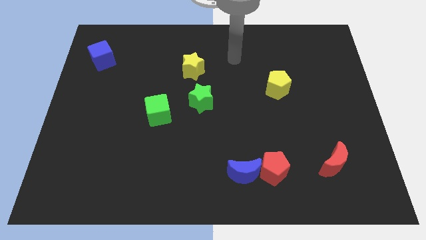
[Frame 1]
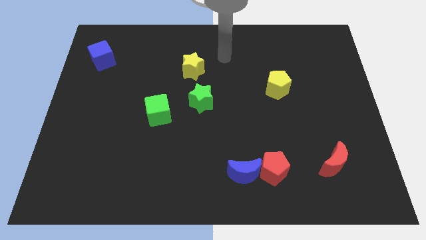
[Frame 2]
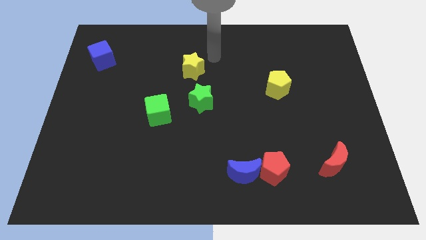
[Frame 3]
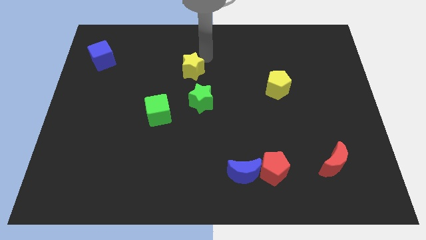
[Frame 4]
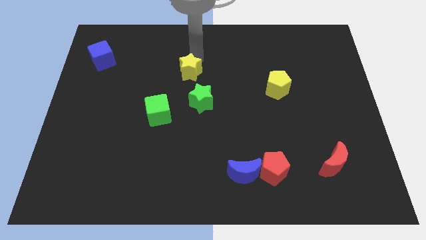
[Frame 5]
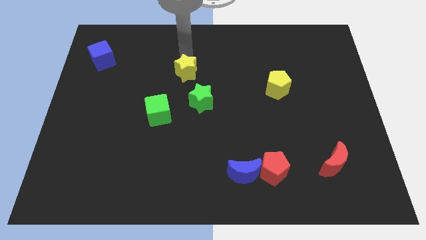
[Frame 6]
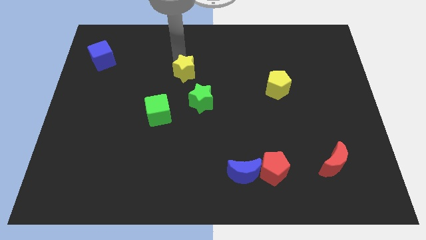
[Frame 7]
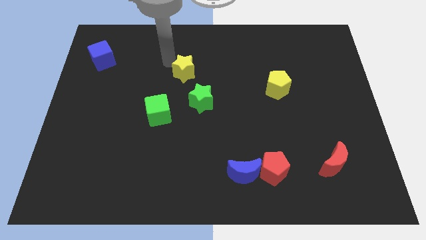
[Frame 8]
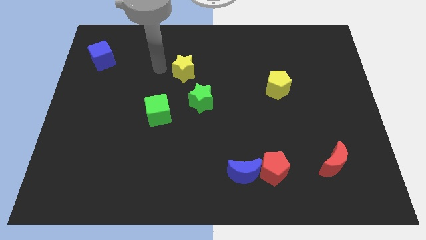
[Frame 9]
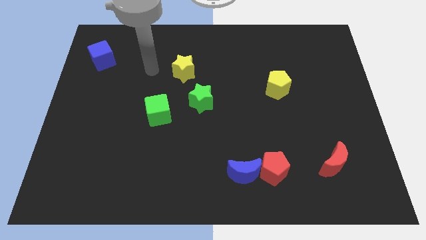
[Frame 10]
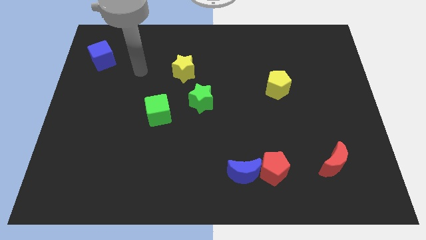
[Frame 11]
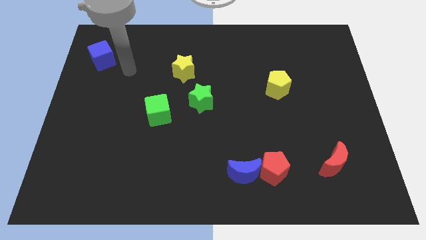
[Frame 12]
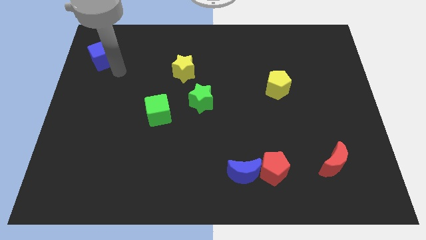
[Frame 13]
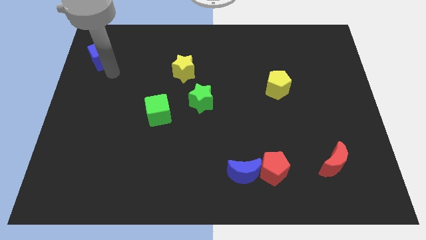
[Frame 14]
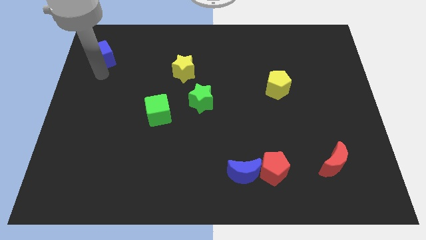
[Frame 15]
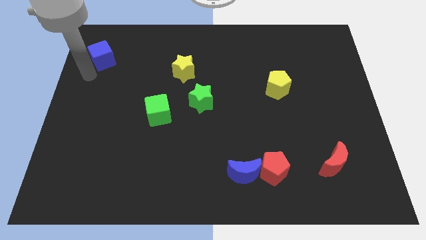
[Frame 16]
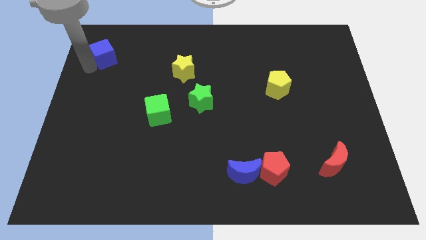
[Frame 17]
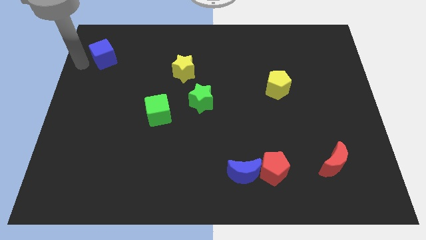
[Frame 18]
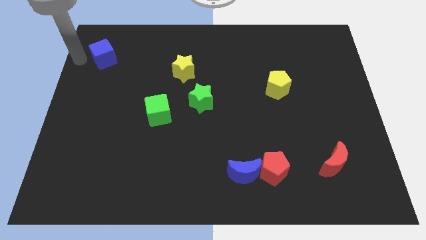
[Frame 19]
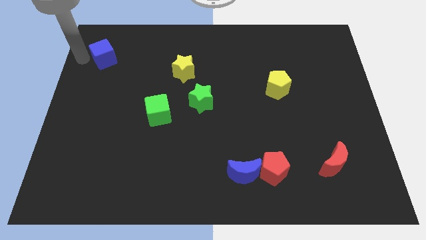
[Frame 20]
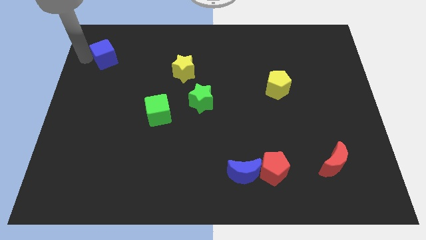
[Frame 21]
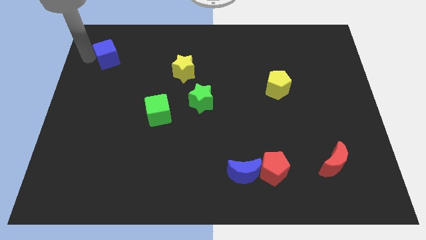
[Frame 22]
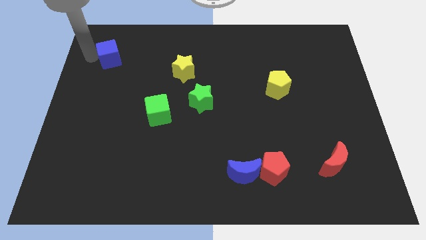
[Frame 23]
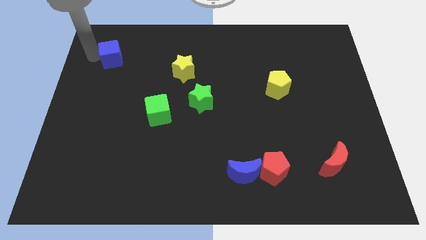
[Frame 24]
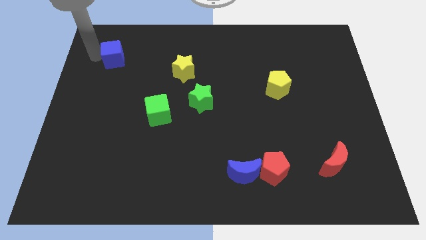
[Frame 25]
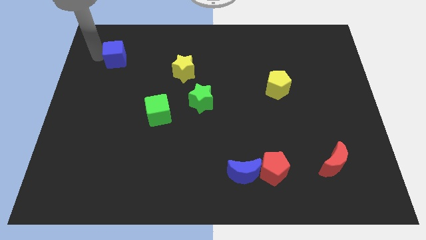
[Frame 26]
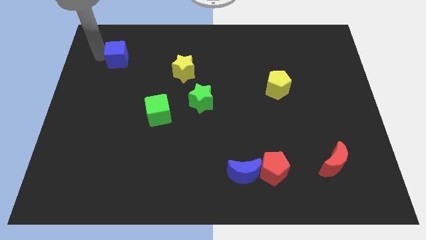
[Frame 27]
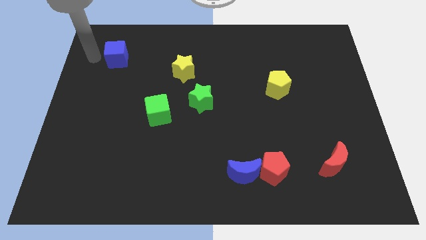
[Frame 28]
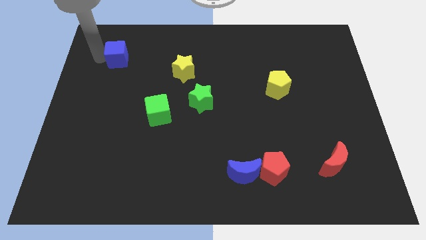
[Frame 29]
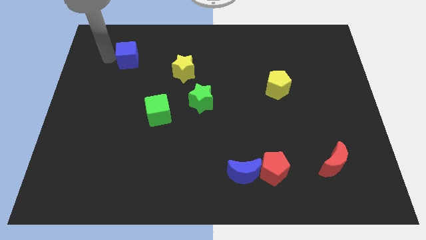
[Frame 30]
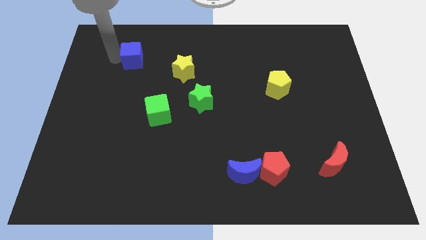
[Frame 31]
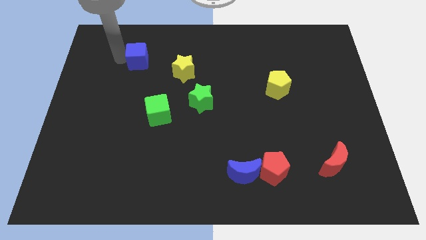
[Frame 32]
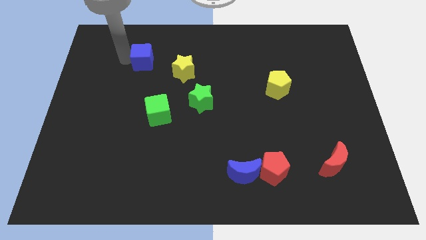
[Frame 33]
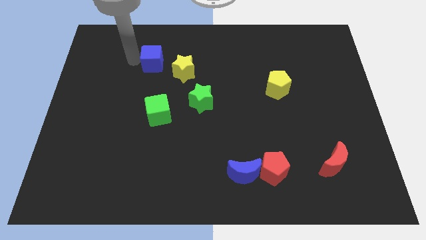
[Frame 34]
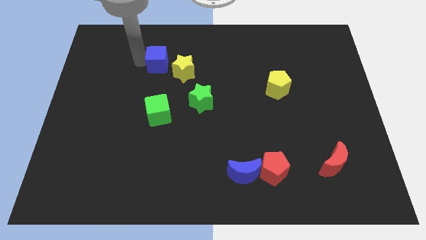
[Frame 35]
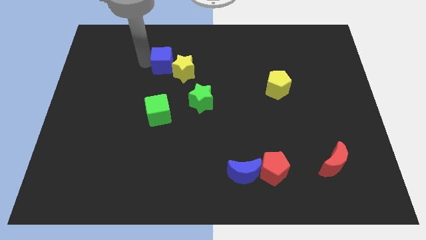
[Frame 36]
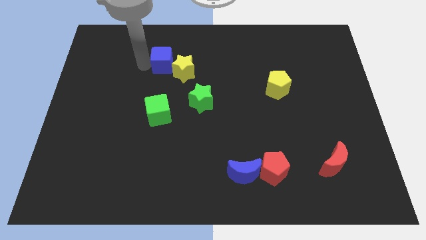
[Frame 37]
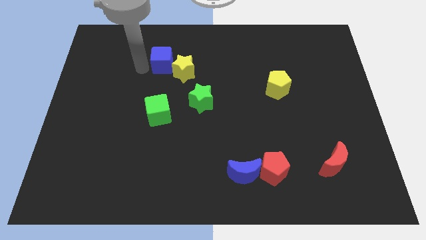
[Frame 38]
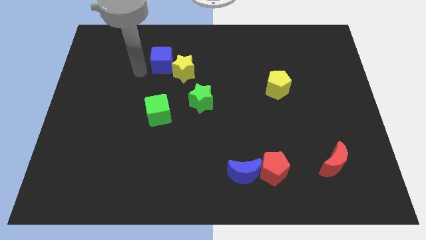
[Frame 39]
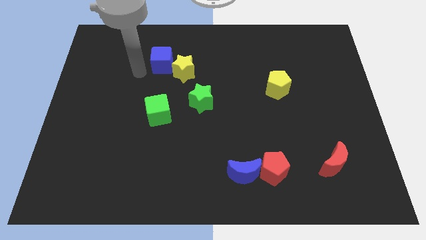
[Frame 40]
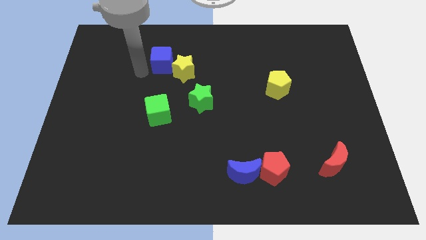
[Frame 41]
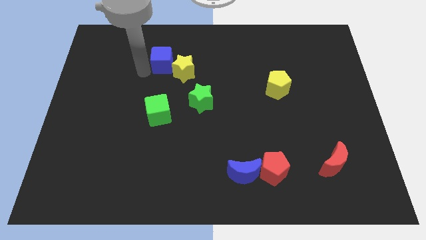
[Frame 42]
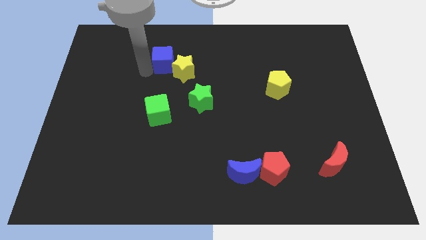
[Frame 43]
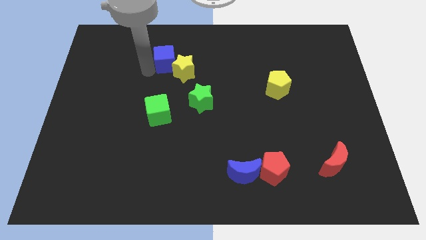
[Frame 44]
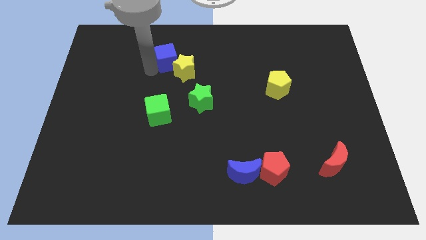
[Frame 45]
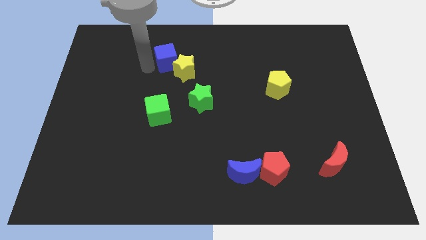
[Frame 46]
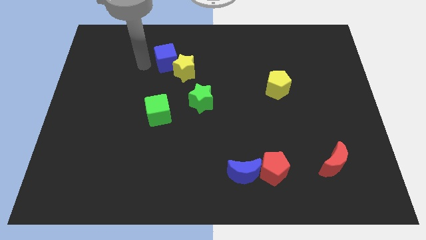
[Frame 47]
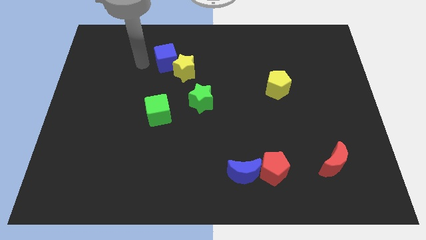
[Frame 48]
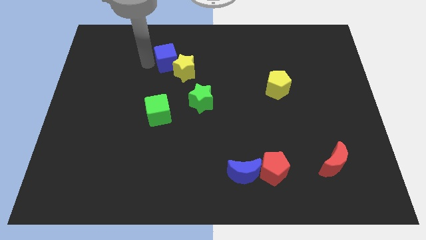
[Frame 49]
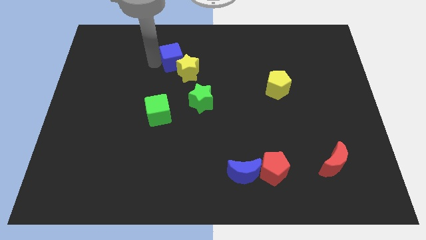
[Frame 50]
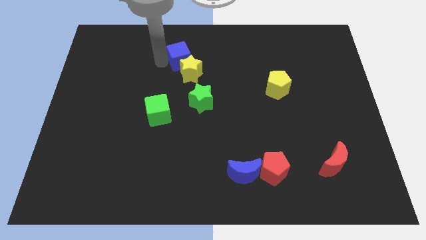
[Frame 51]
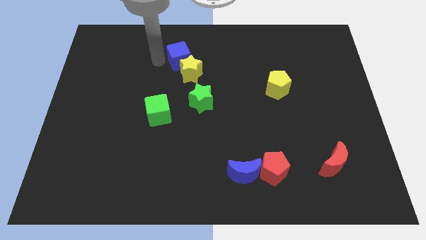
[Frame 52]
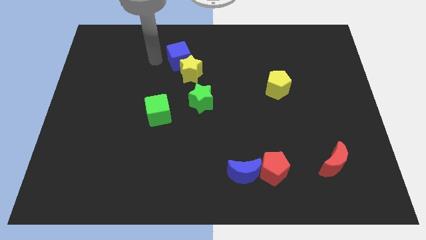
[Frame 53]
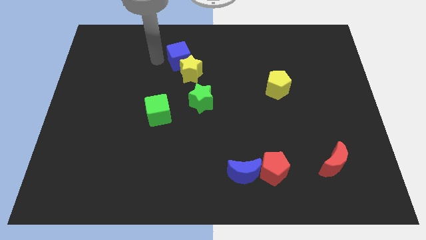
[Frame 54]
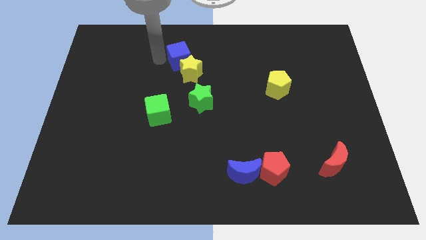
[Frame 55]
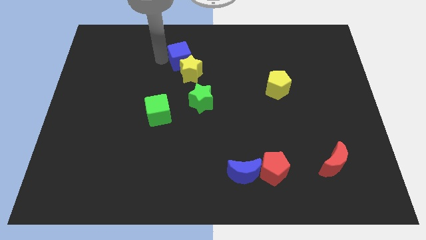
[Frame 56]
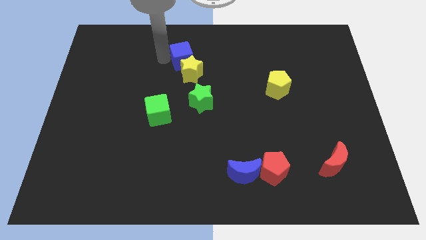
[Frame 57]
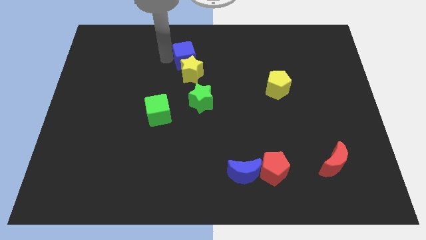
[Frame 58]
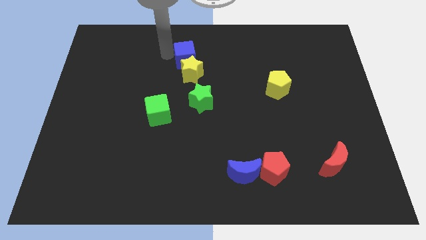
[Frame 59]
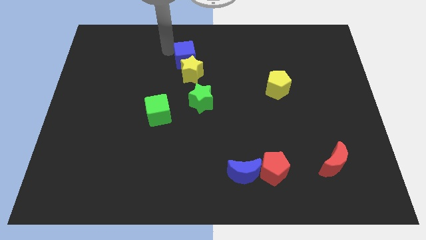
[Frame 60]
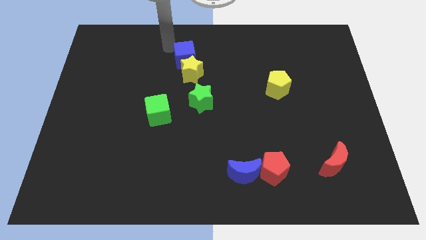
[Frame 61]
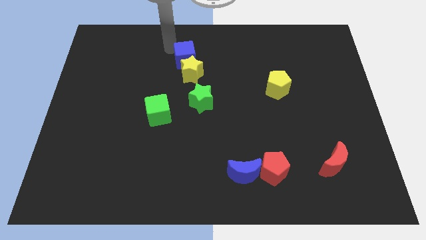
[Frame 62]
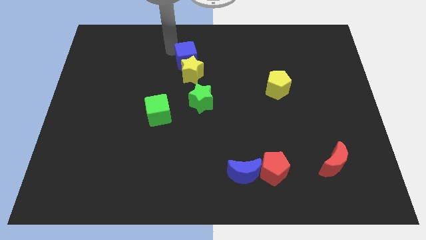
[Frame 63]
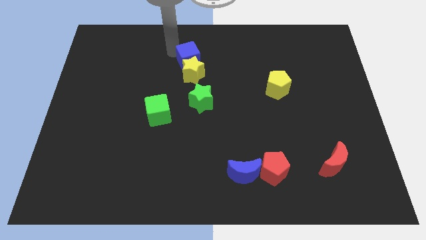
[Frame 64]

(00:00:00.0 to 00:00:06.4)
move the blue cube to the top of the green star
